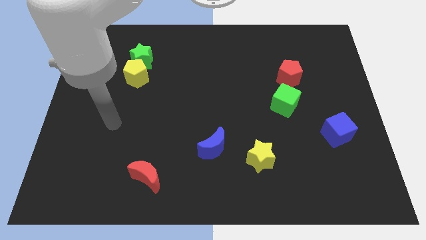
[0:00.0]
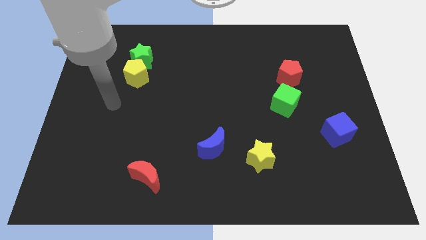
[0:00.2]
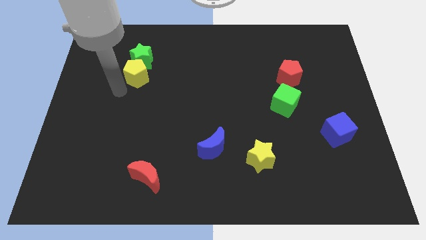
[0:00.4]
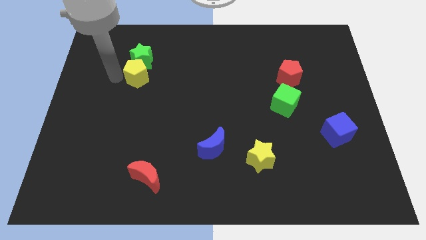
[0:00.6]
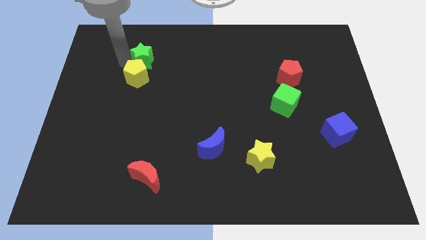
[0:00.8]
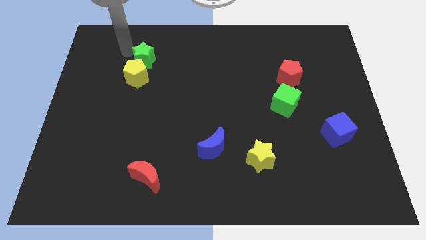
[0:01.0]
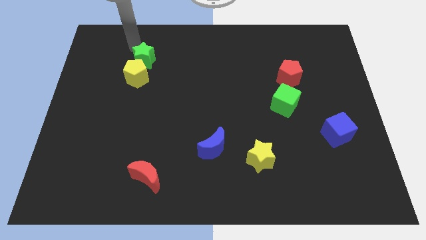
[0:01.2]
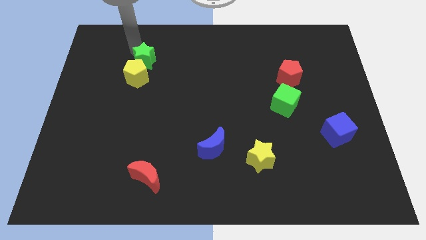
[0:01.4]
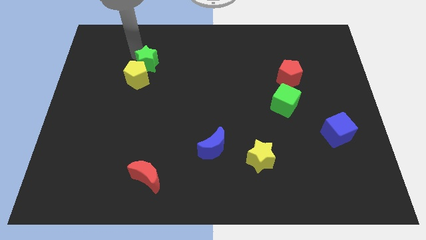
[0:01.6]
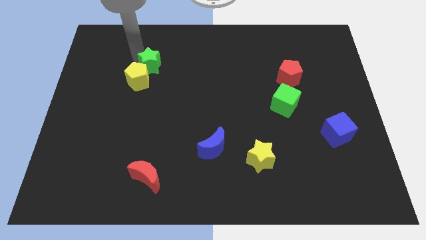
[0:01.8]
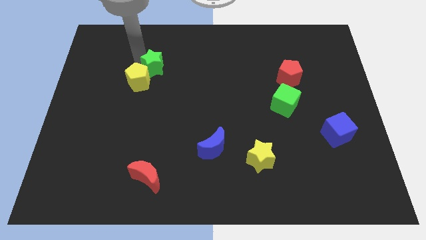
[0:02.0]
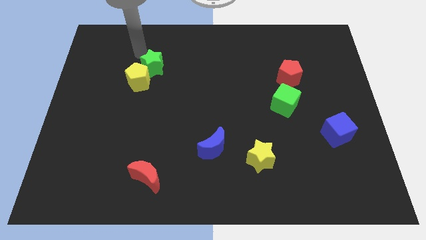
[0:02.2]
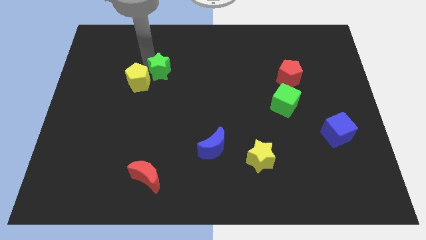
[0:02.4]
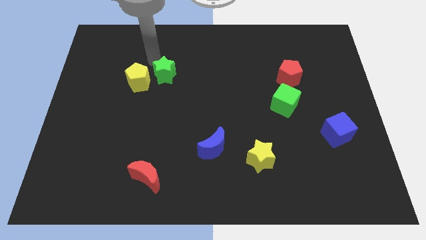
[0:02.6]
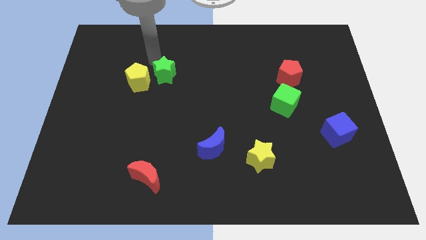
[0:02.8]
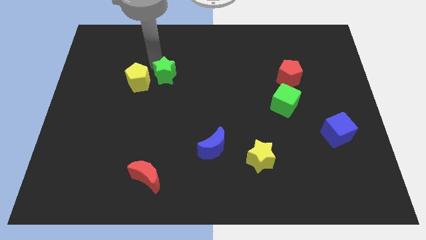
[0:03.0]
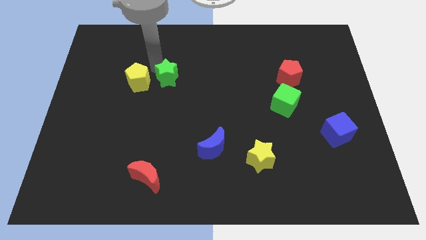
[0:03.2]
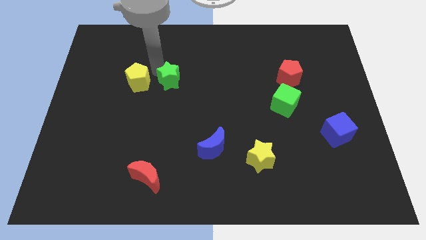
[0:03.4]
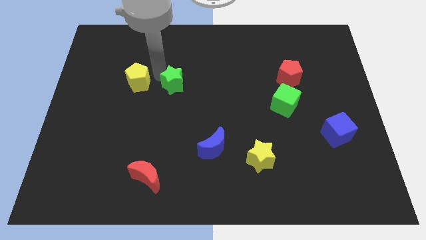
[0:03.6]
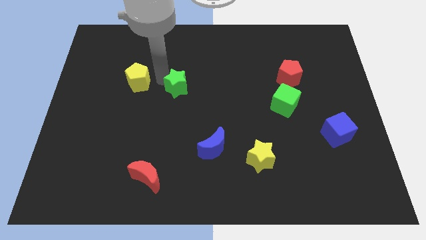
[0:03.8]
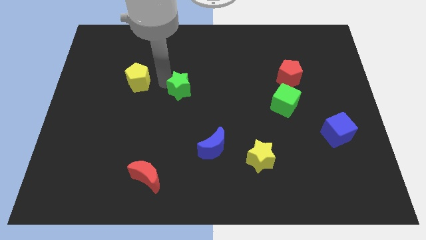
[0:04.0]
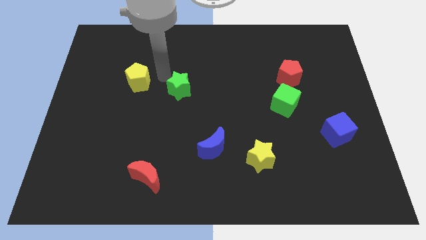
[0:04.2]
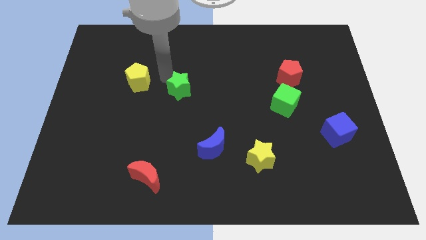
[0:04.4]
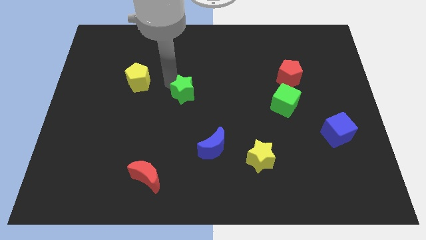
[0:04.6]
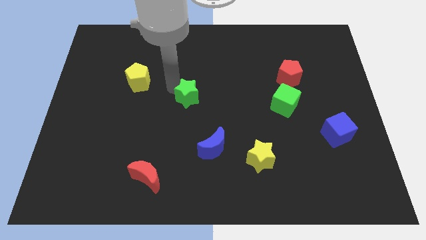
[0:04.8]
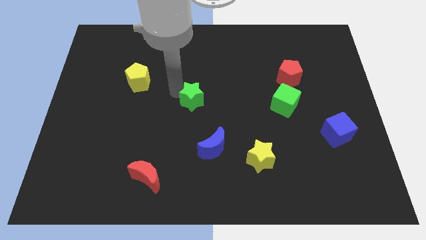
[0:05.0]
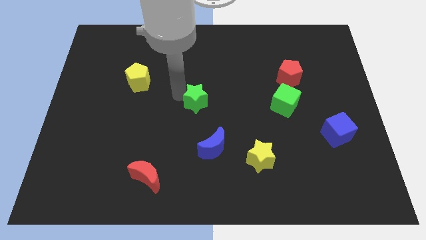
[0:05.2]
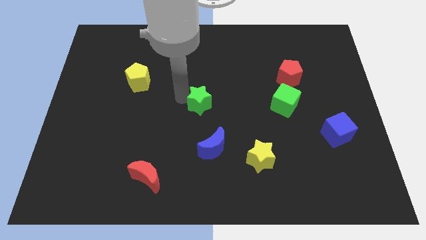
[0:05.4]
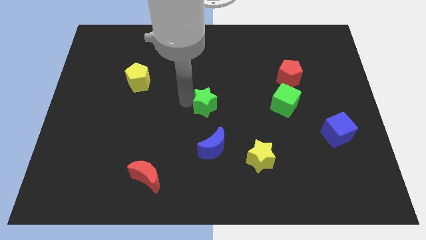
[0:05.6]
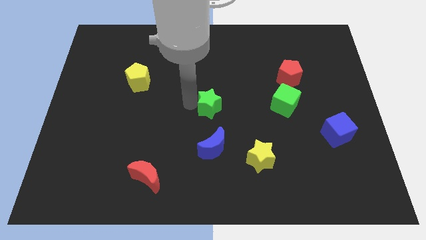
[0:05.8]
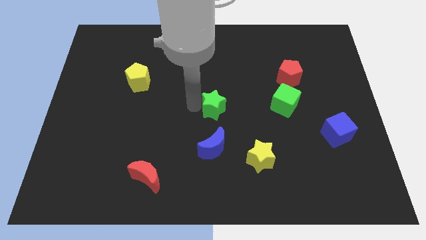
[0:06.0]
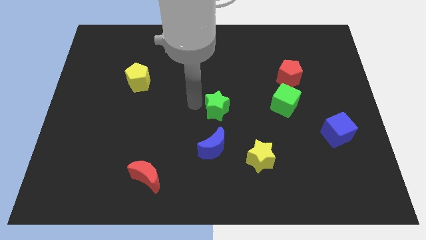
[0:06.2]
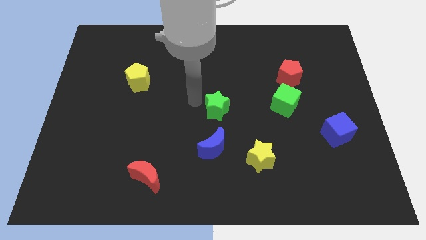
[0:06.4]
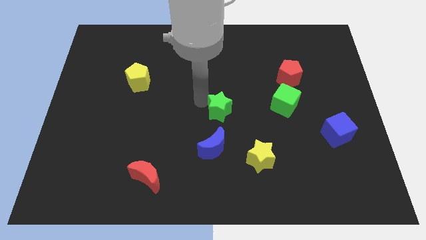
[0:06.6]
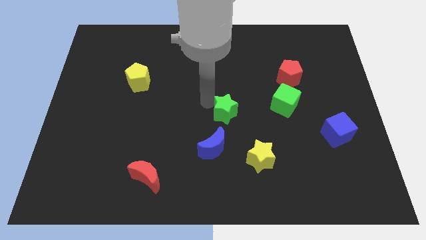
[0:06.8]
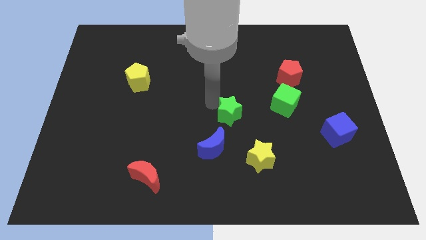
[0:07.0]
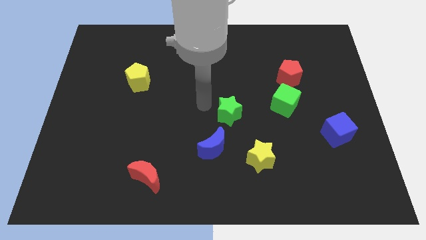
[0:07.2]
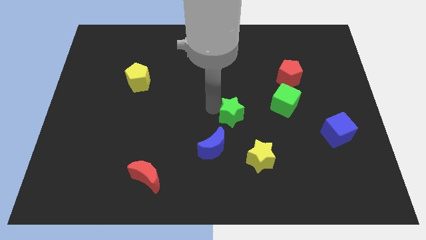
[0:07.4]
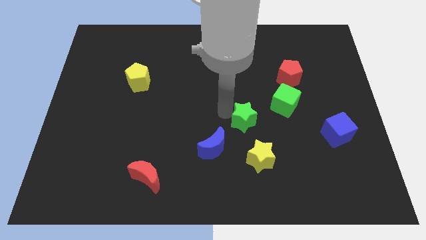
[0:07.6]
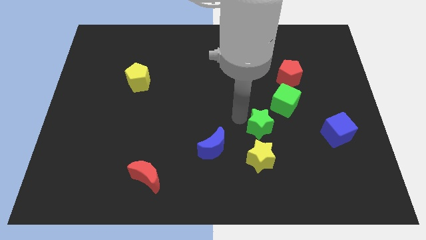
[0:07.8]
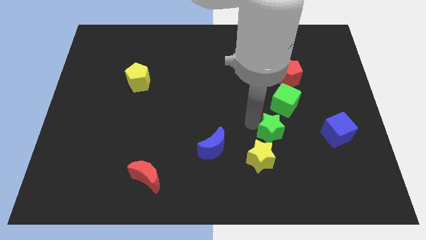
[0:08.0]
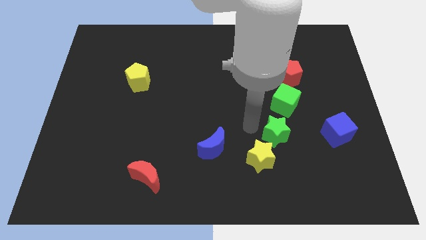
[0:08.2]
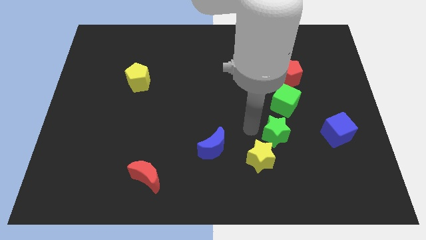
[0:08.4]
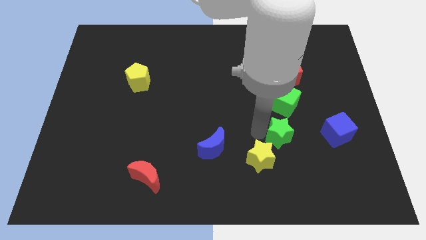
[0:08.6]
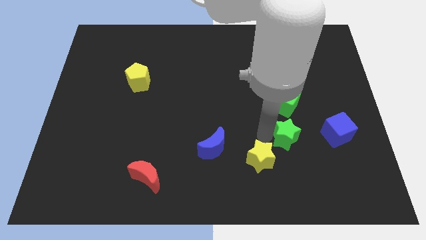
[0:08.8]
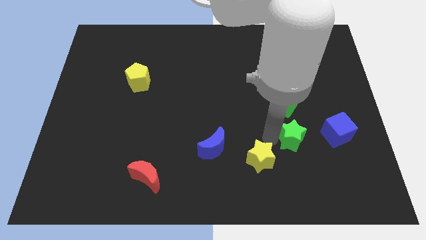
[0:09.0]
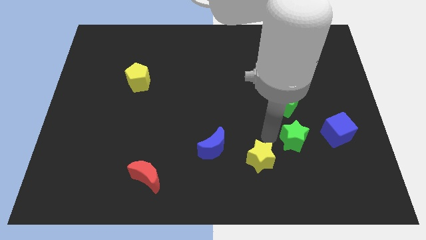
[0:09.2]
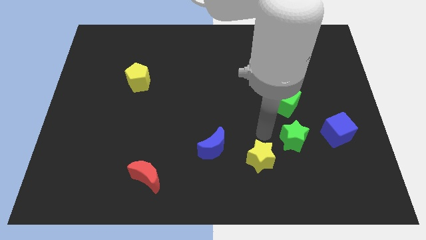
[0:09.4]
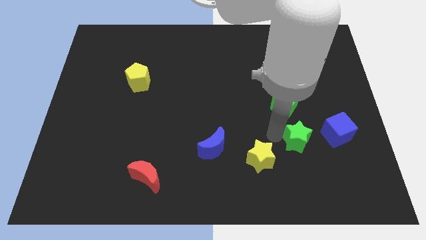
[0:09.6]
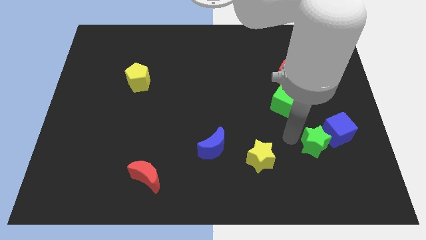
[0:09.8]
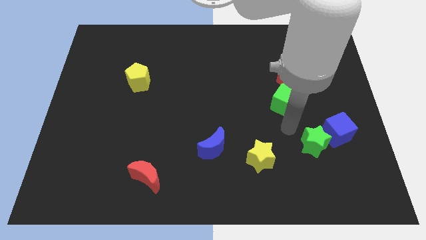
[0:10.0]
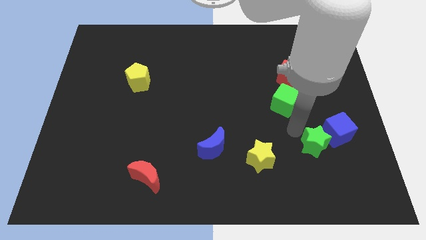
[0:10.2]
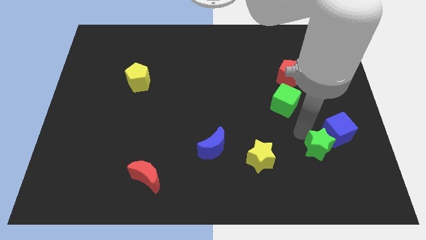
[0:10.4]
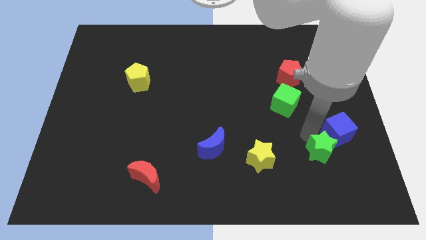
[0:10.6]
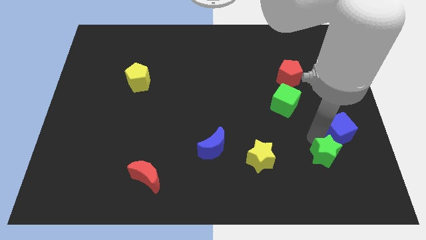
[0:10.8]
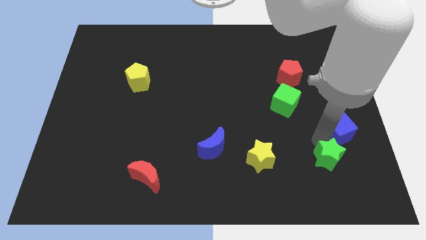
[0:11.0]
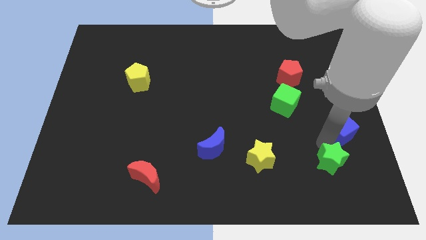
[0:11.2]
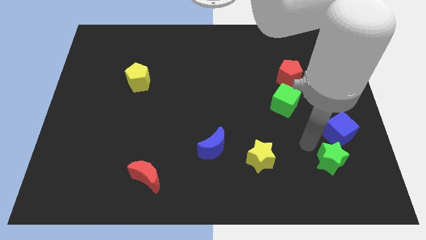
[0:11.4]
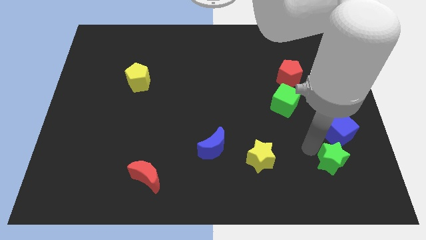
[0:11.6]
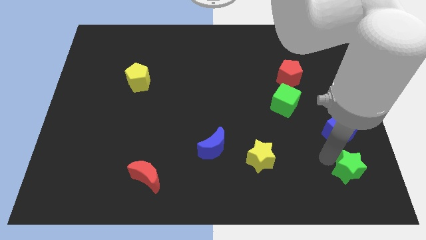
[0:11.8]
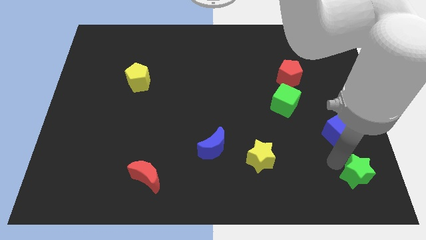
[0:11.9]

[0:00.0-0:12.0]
slide the green star to the bottom right corner
